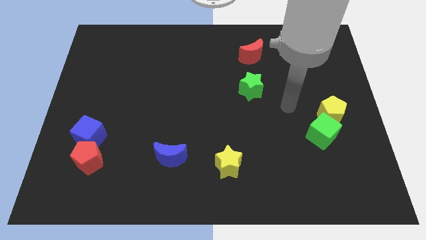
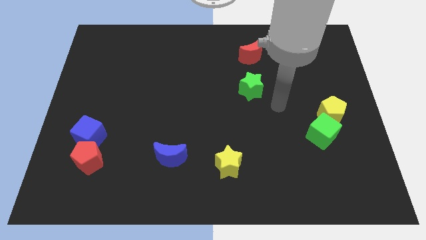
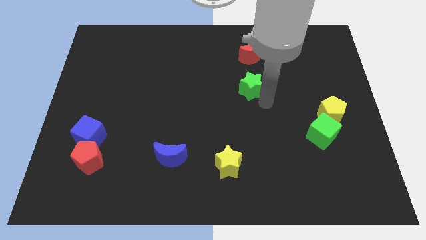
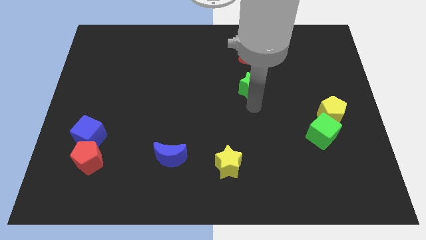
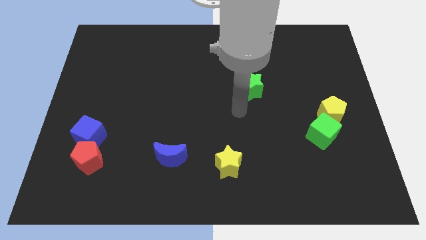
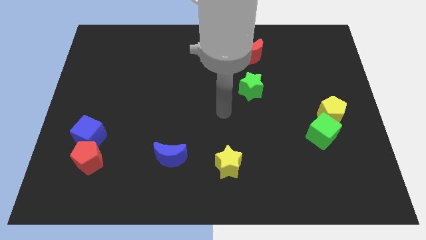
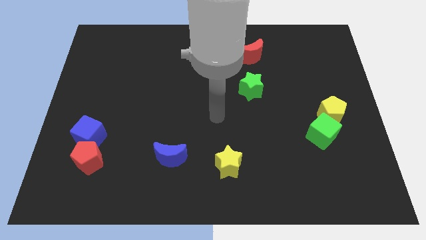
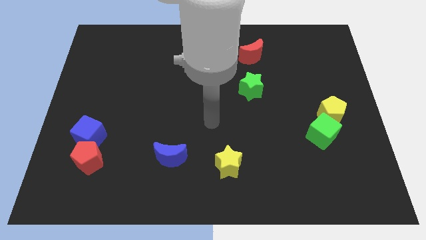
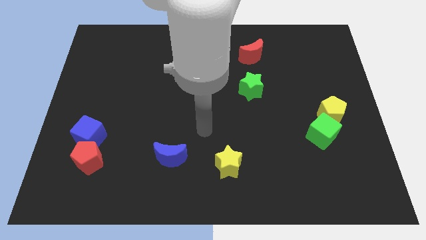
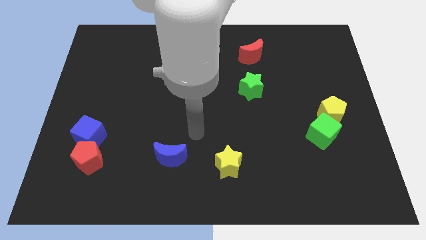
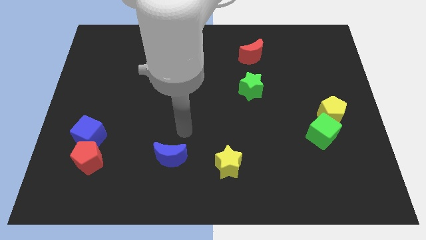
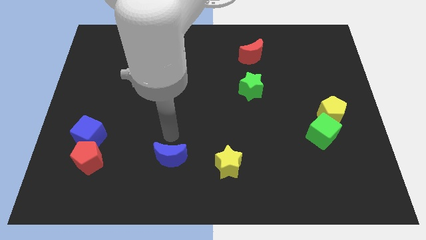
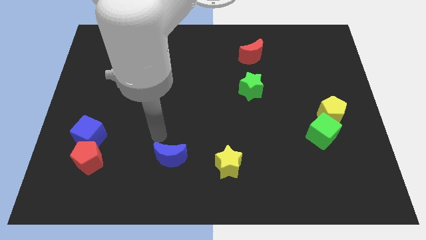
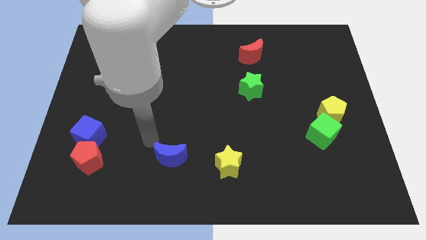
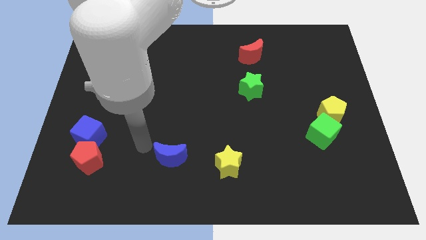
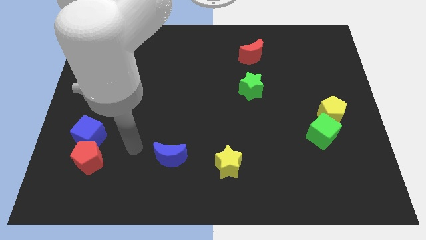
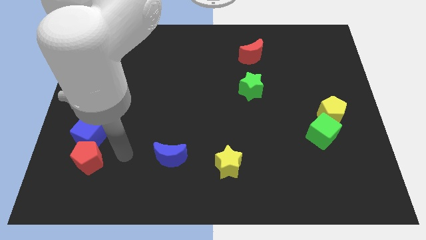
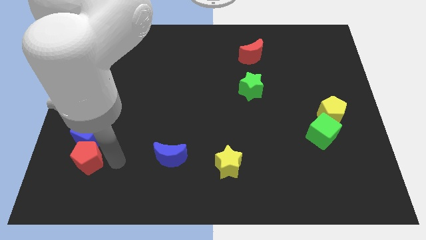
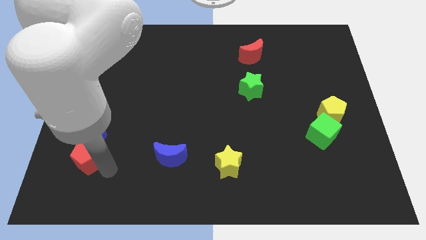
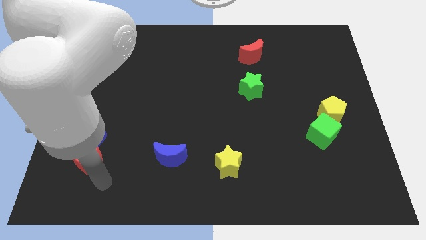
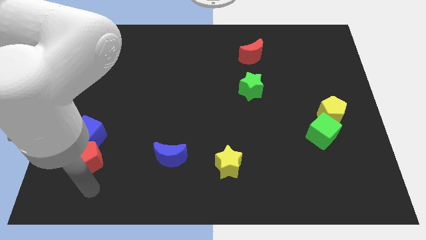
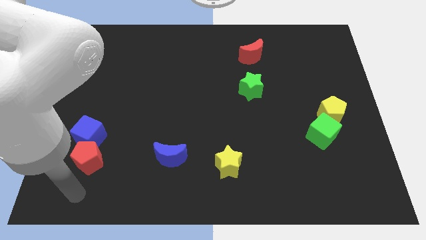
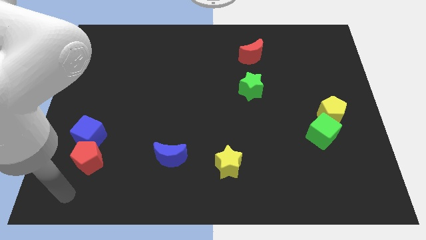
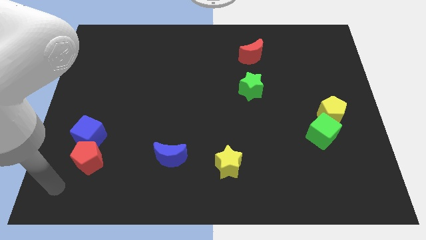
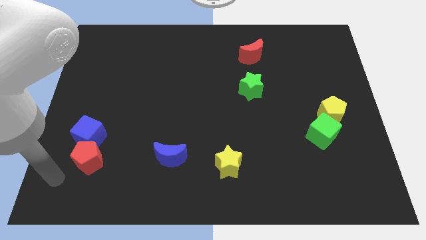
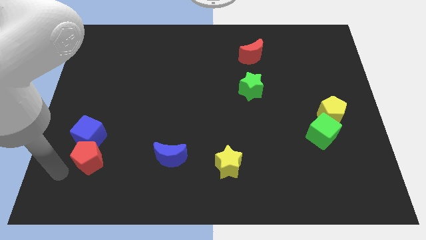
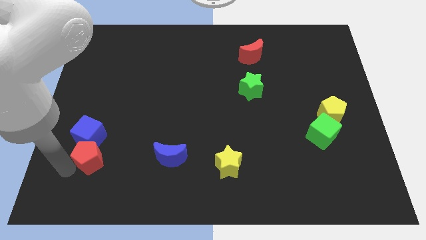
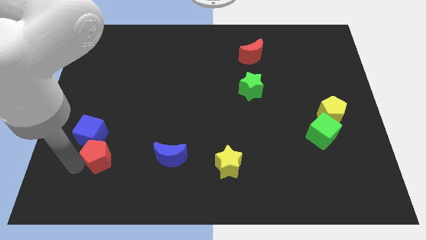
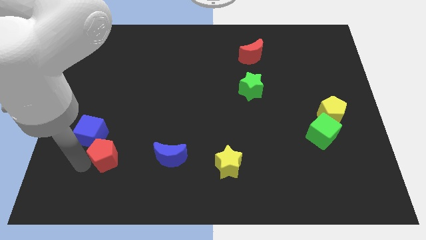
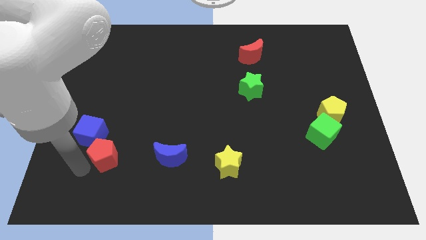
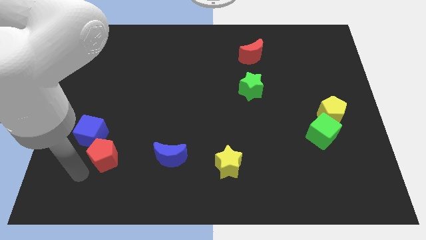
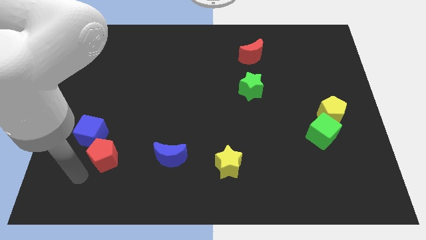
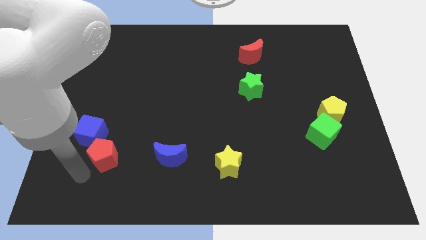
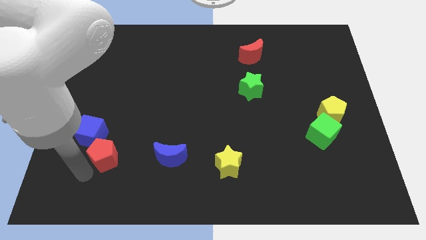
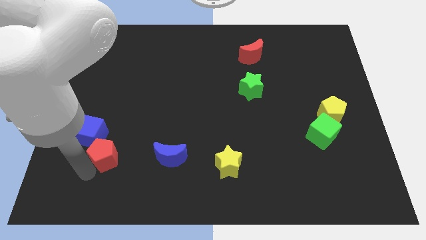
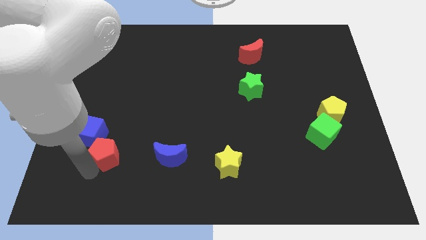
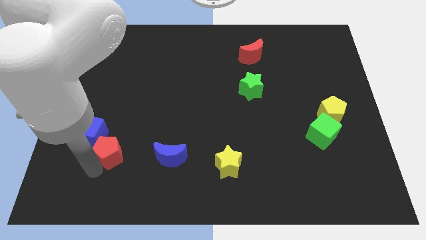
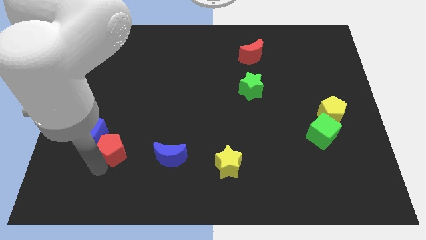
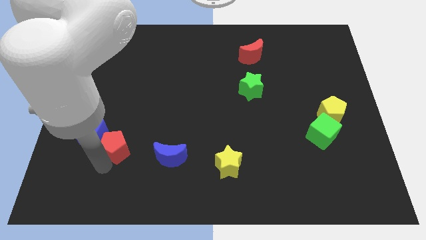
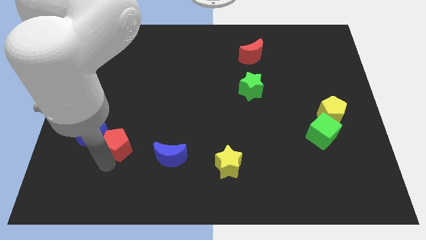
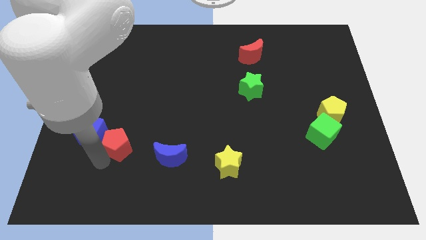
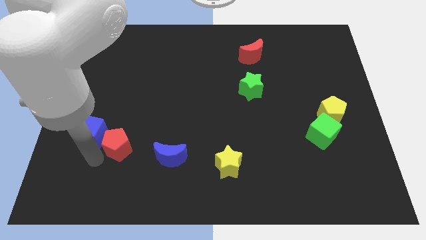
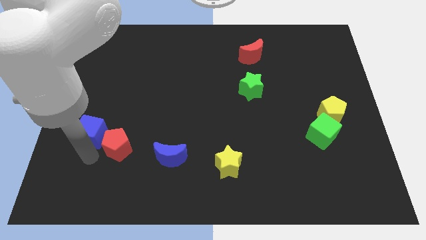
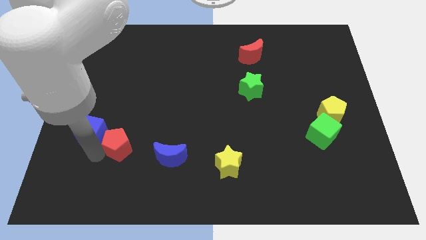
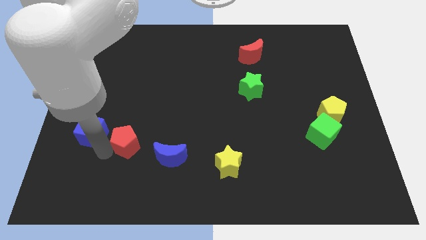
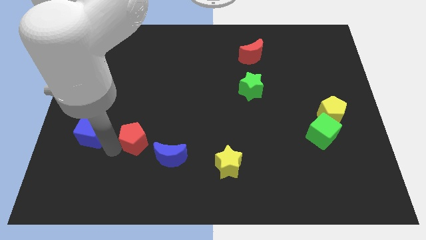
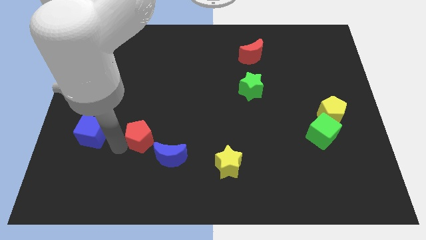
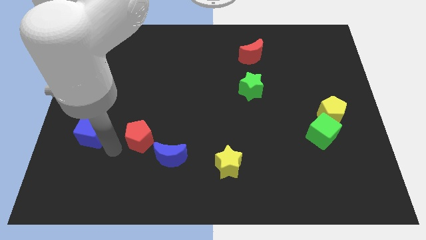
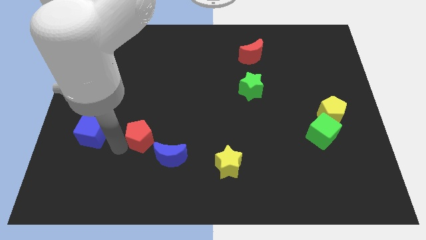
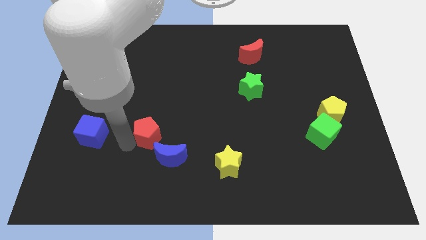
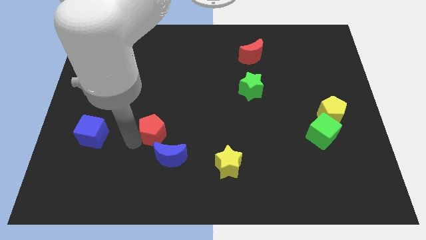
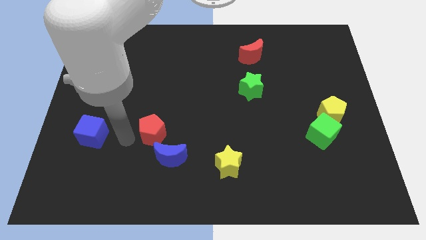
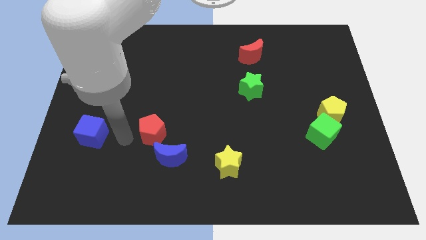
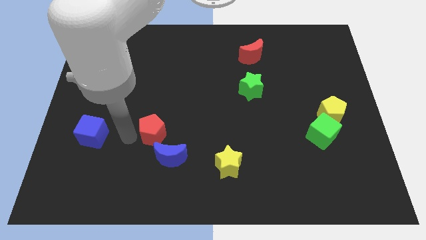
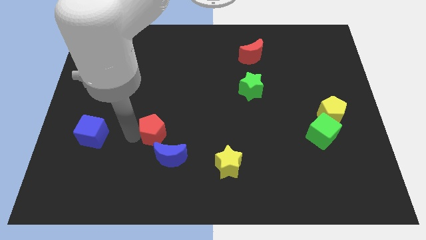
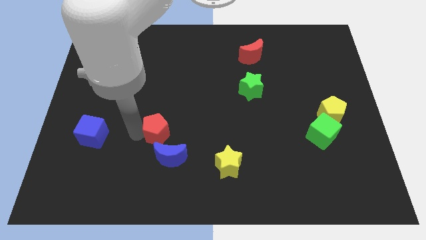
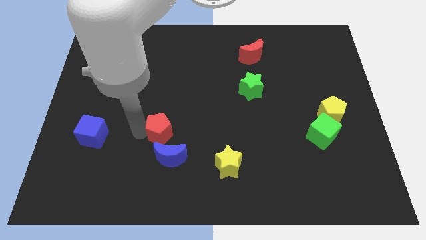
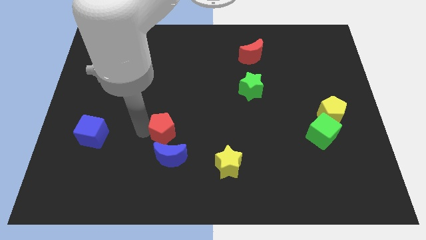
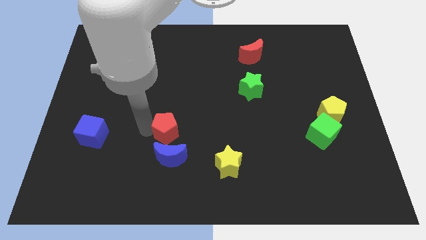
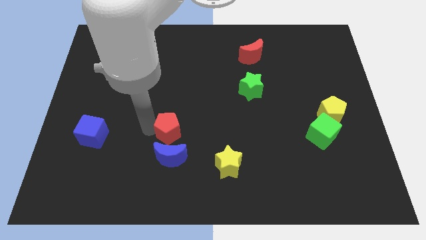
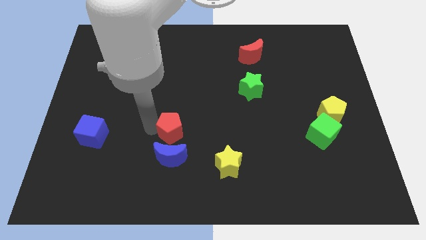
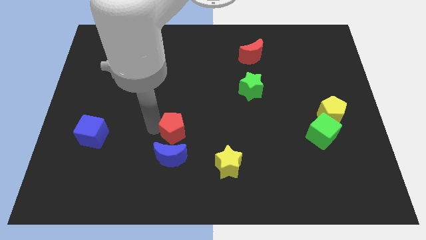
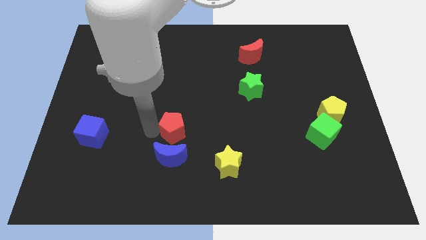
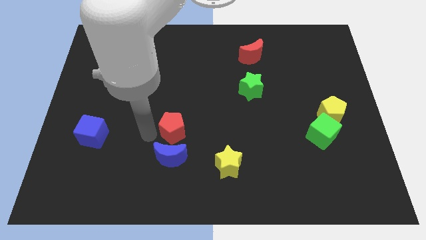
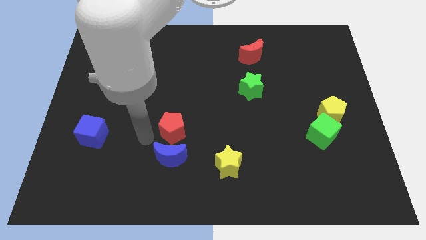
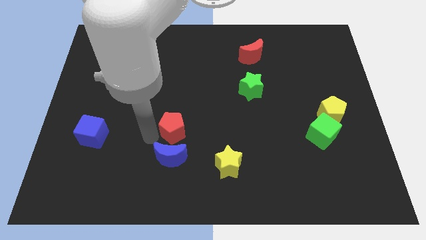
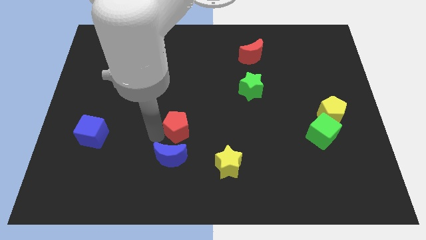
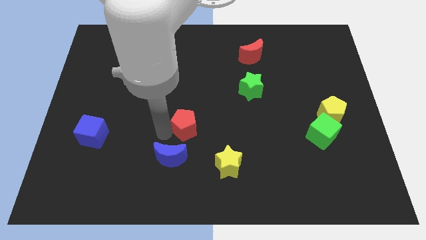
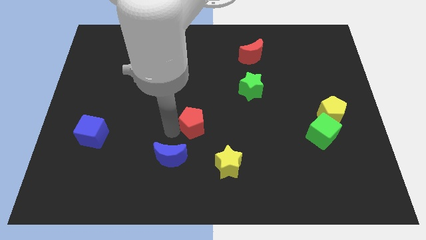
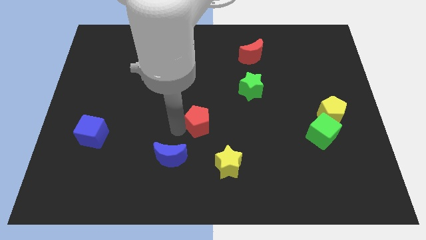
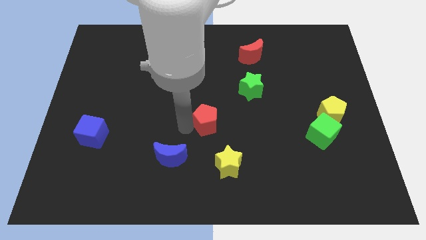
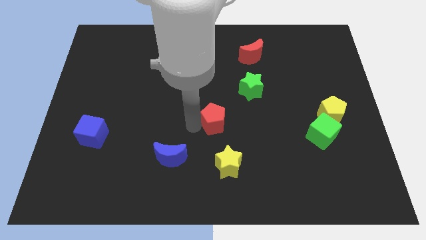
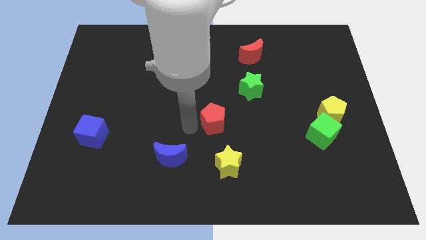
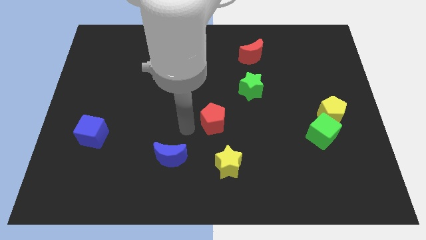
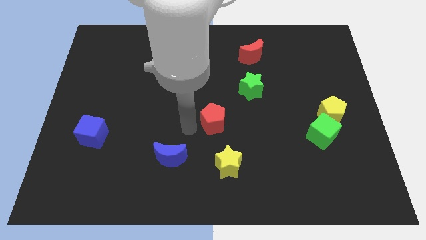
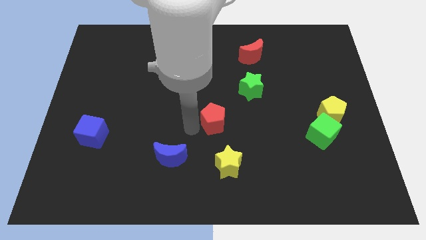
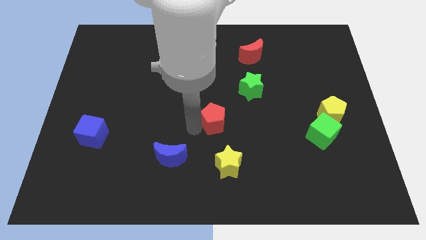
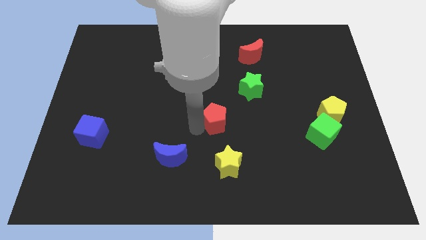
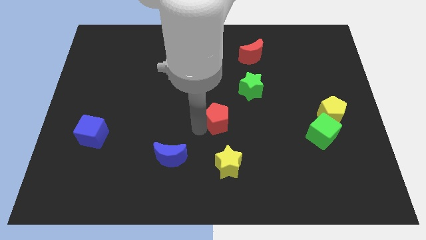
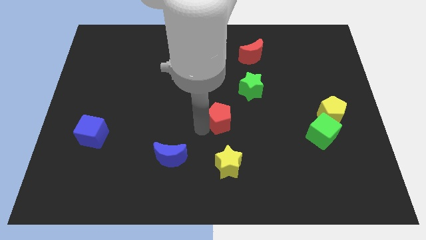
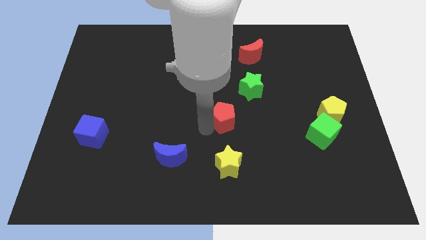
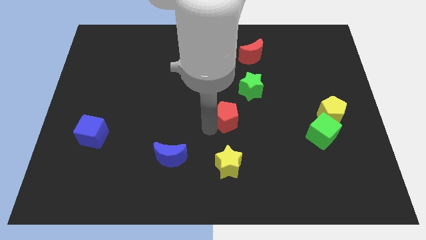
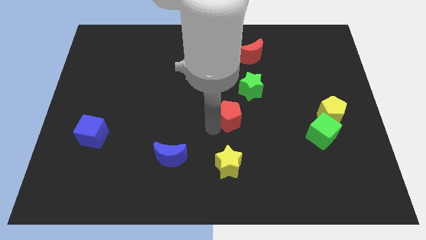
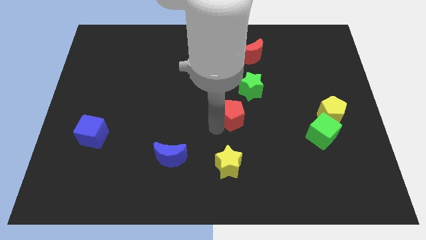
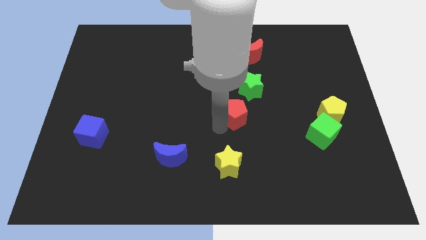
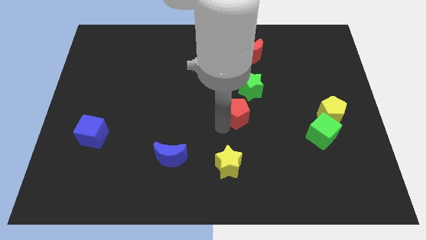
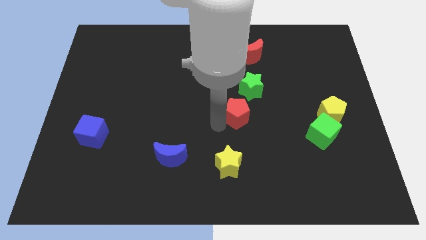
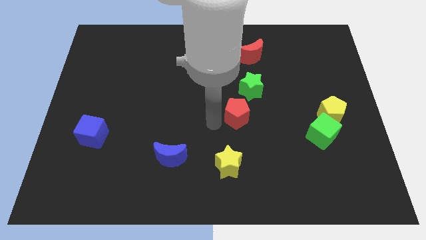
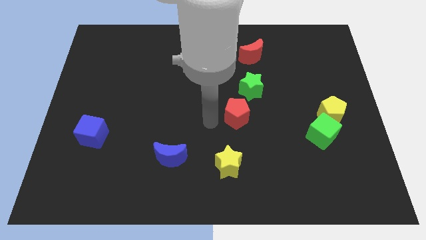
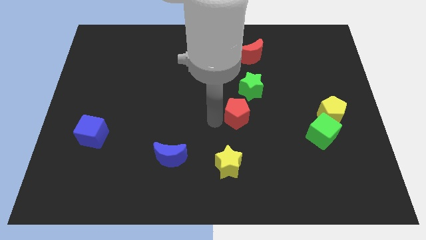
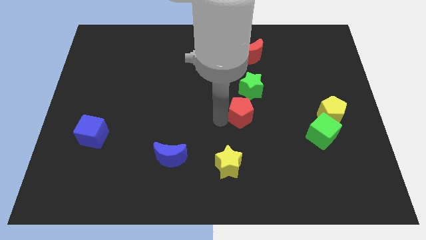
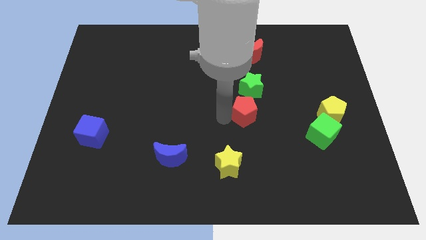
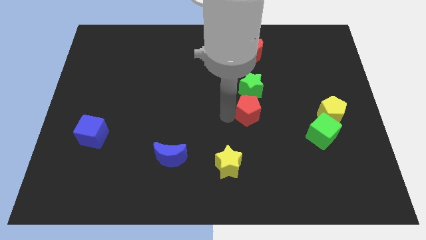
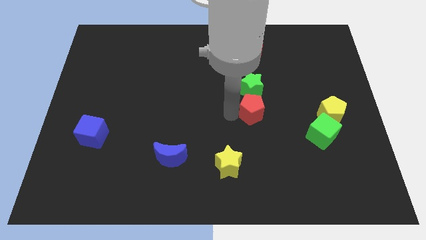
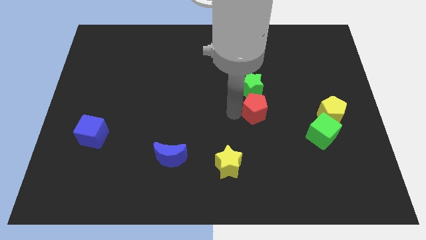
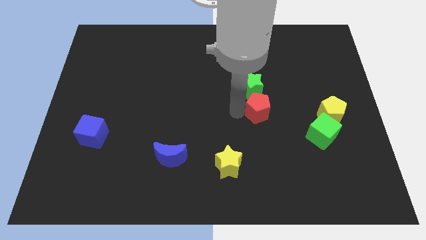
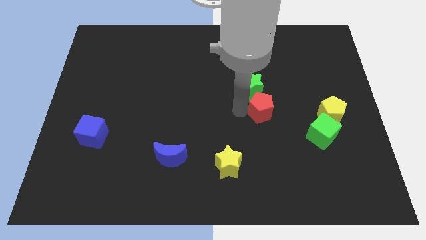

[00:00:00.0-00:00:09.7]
slide the red pentagon left of the yellow pentagon
